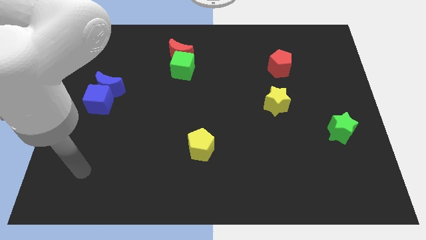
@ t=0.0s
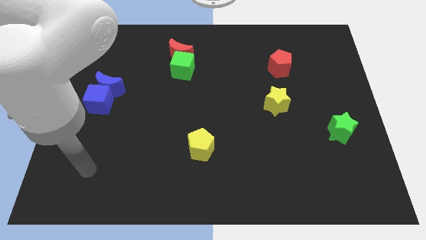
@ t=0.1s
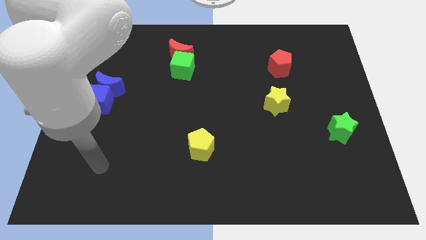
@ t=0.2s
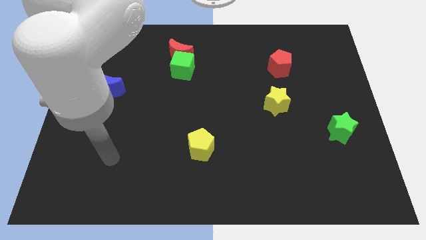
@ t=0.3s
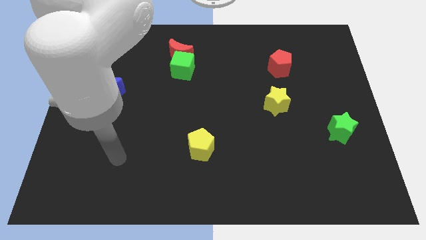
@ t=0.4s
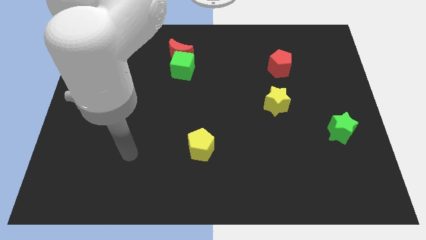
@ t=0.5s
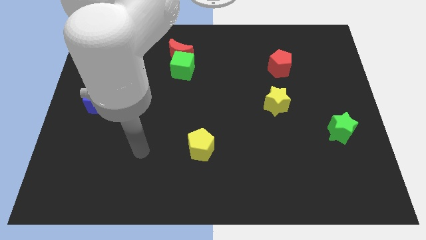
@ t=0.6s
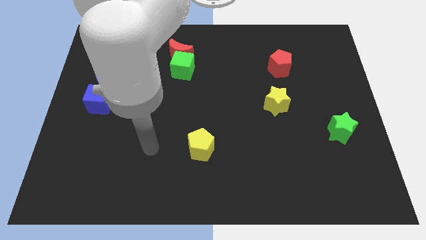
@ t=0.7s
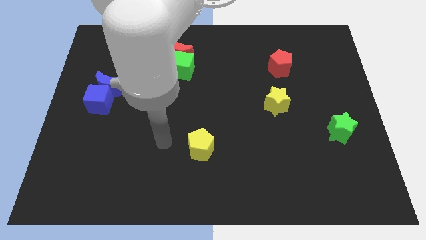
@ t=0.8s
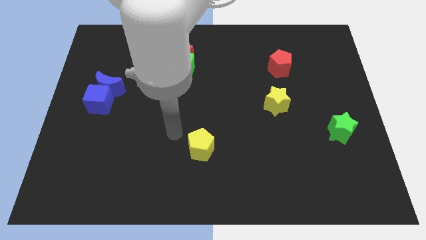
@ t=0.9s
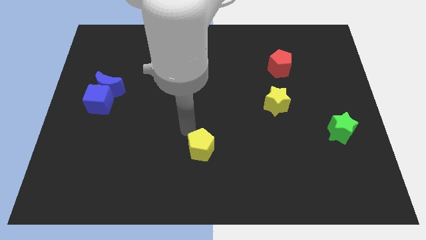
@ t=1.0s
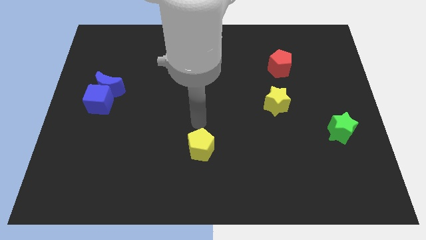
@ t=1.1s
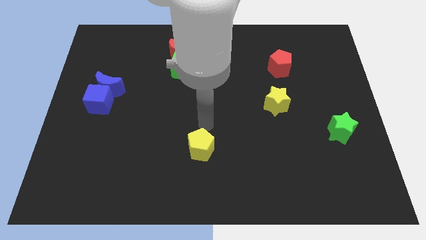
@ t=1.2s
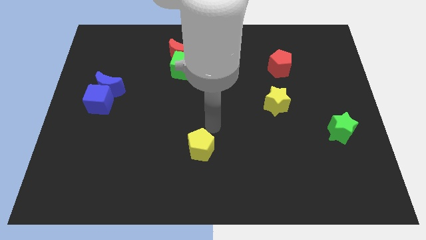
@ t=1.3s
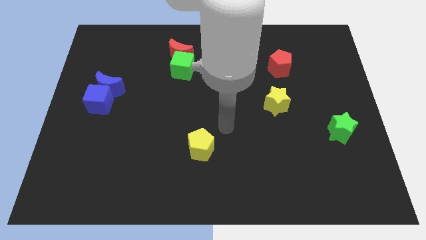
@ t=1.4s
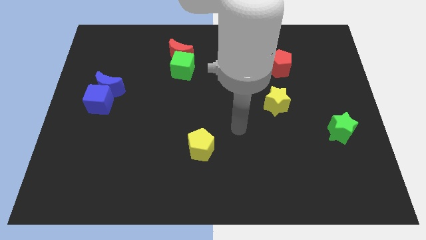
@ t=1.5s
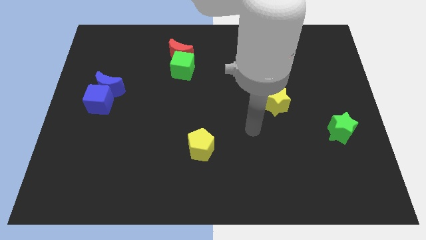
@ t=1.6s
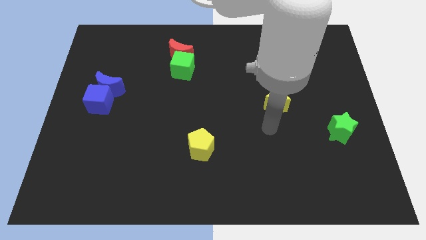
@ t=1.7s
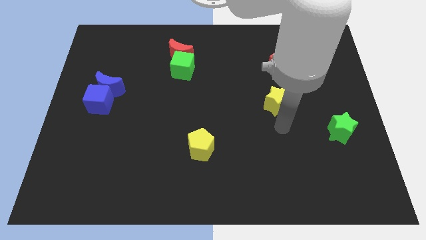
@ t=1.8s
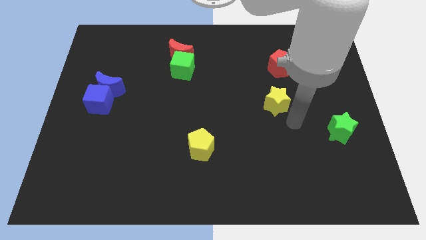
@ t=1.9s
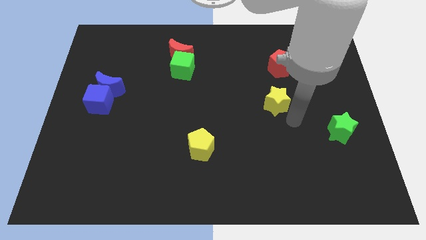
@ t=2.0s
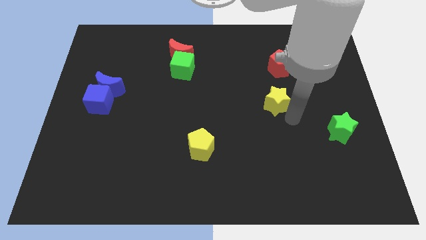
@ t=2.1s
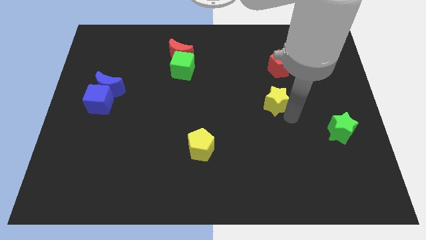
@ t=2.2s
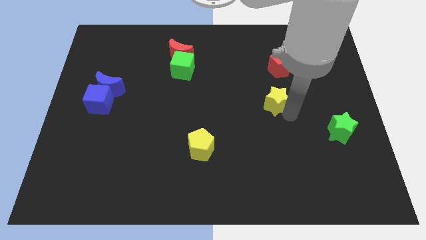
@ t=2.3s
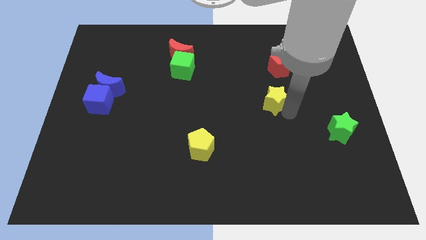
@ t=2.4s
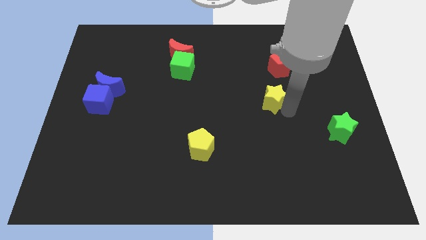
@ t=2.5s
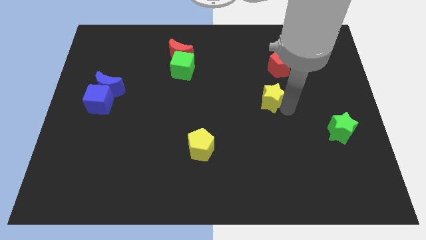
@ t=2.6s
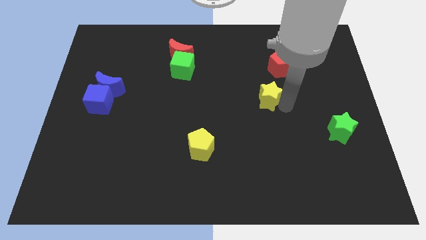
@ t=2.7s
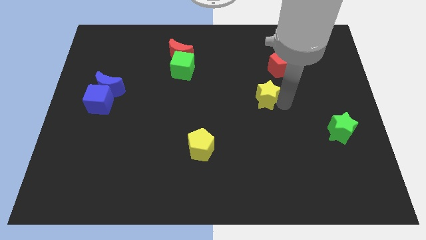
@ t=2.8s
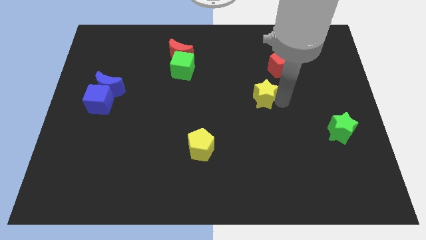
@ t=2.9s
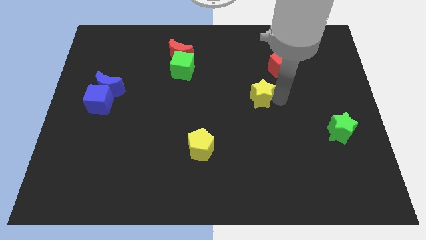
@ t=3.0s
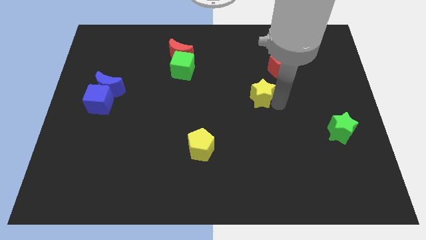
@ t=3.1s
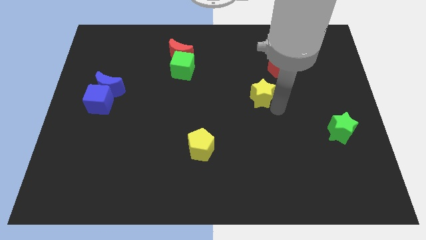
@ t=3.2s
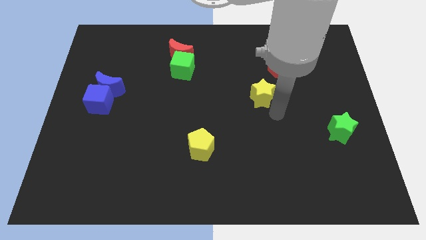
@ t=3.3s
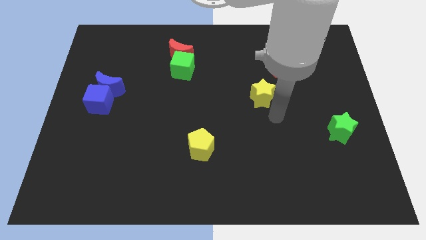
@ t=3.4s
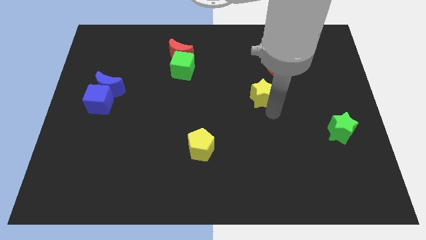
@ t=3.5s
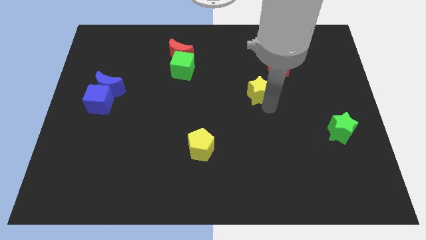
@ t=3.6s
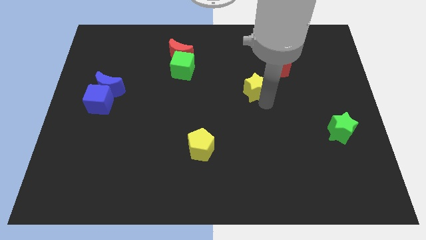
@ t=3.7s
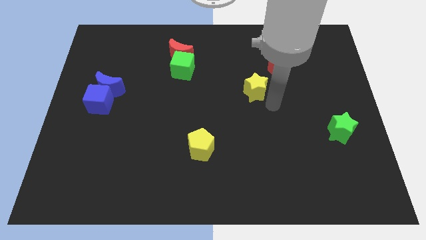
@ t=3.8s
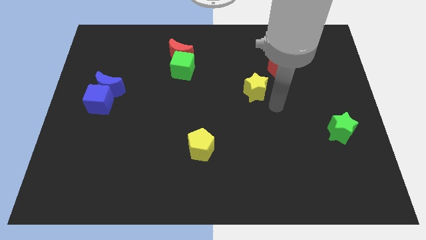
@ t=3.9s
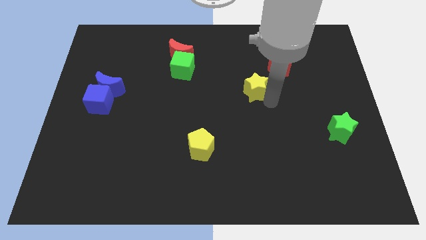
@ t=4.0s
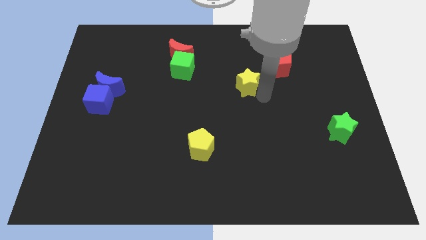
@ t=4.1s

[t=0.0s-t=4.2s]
push the yellow star up and then to the left a little

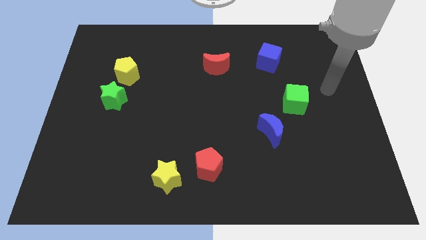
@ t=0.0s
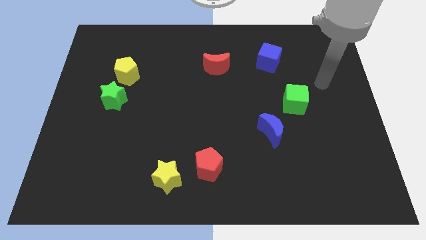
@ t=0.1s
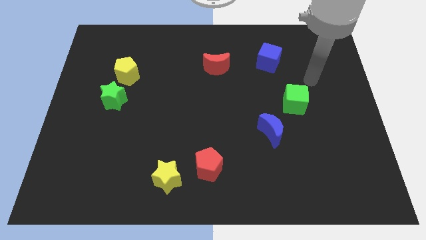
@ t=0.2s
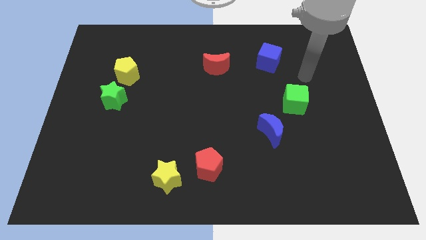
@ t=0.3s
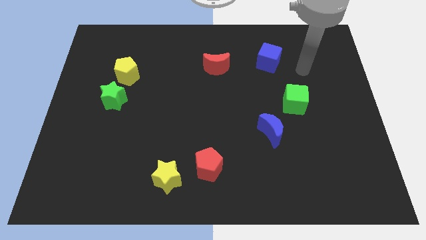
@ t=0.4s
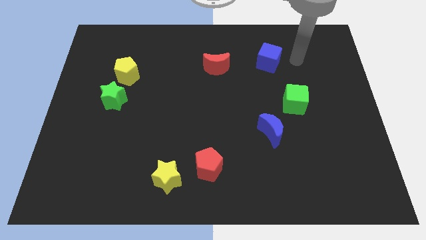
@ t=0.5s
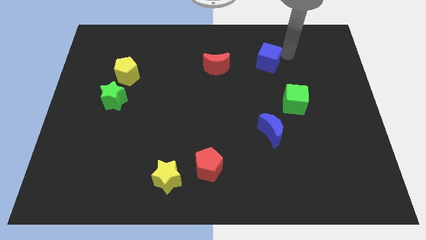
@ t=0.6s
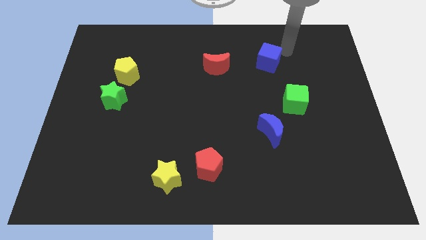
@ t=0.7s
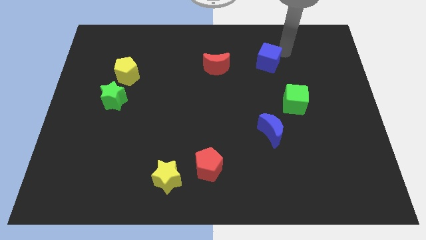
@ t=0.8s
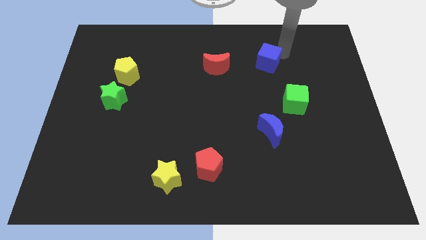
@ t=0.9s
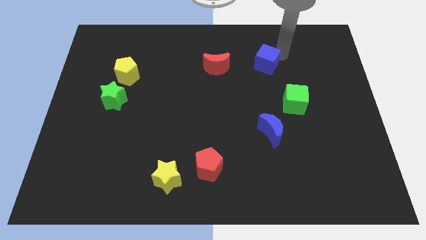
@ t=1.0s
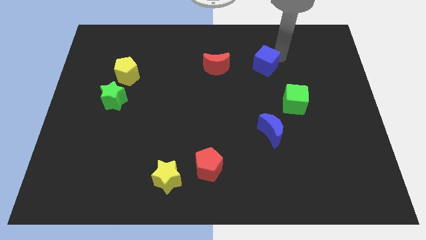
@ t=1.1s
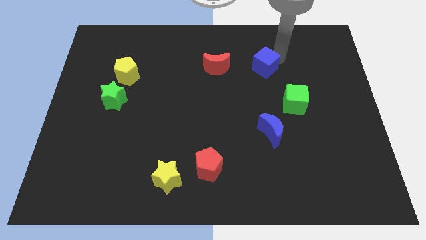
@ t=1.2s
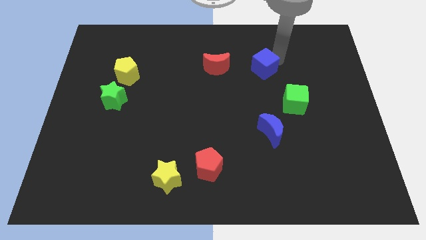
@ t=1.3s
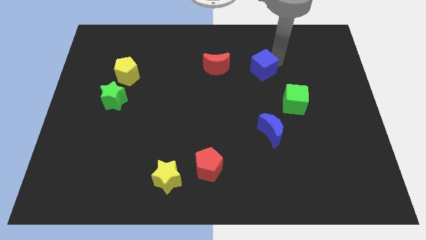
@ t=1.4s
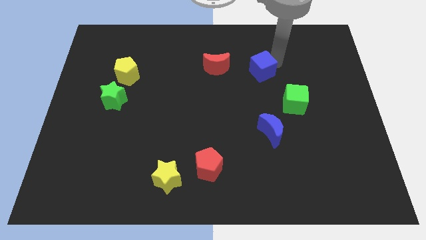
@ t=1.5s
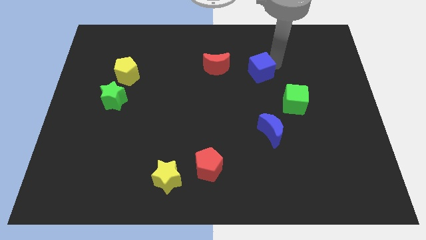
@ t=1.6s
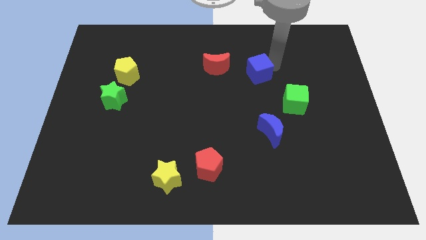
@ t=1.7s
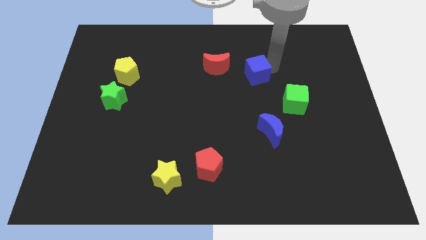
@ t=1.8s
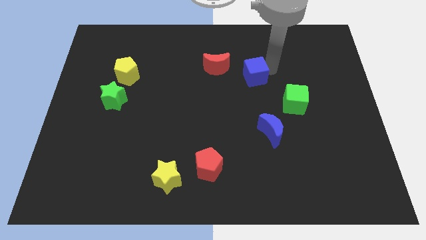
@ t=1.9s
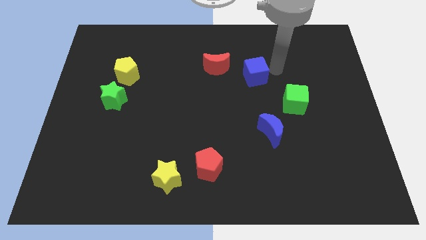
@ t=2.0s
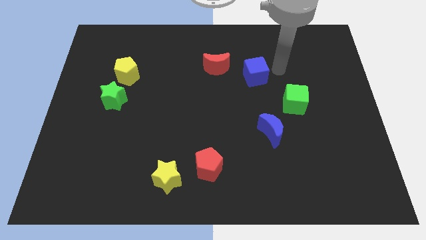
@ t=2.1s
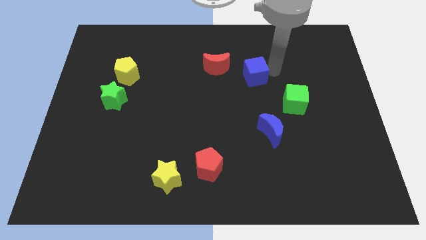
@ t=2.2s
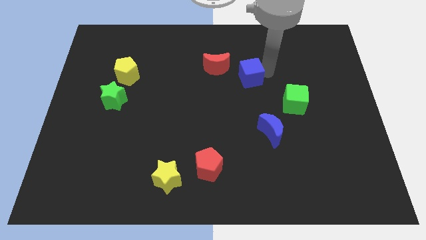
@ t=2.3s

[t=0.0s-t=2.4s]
slide the blue cube a little downwards and to the left

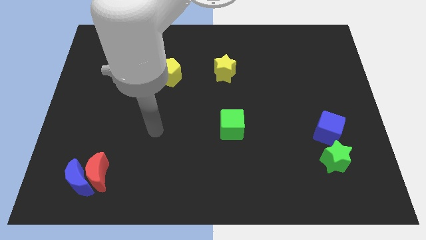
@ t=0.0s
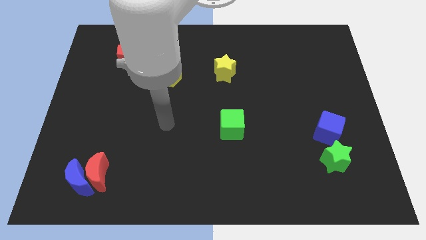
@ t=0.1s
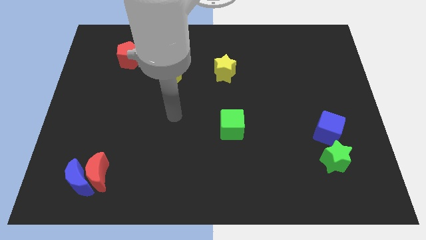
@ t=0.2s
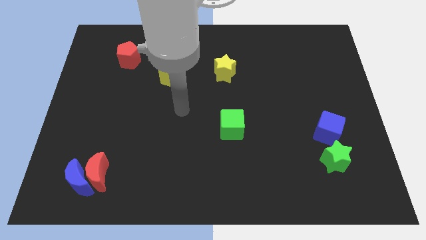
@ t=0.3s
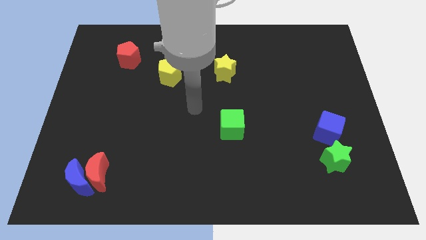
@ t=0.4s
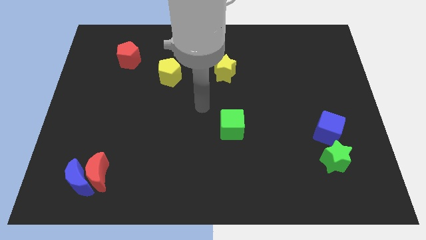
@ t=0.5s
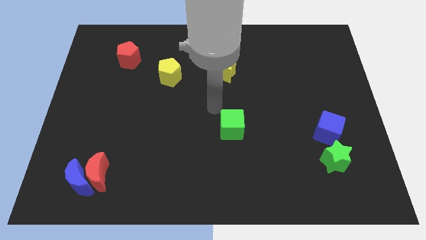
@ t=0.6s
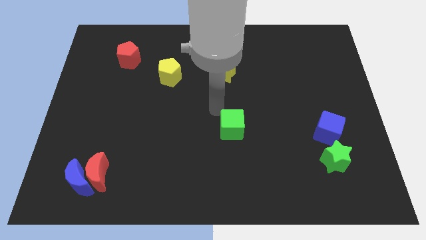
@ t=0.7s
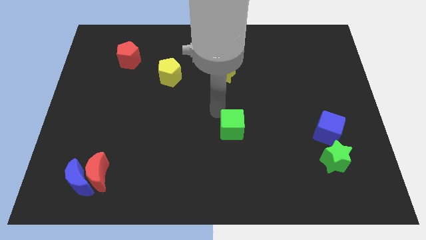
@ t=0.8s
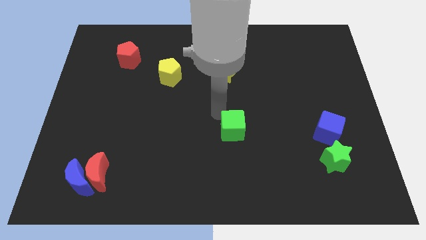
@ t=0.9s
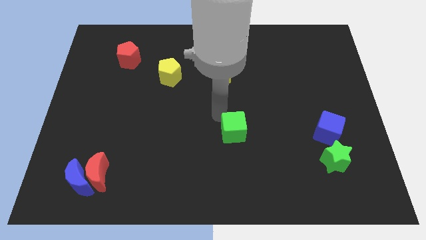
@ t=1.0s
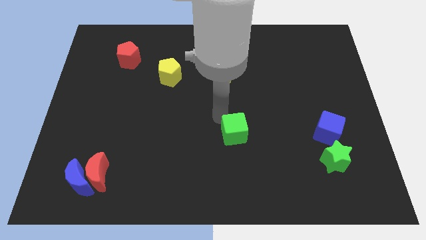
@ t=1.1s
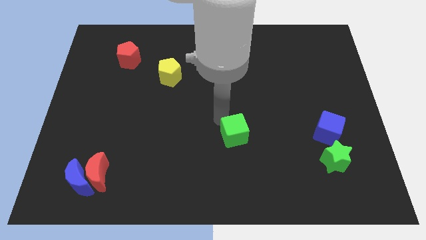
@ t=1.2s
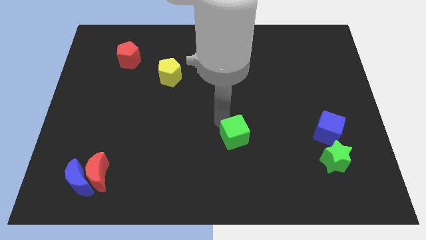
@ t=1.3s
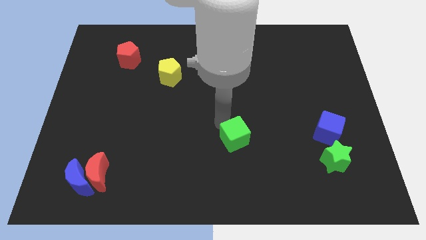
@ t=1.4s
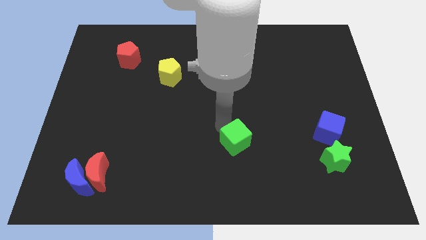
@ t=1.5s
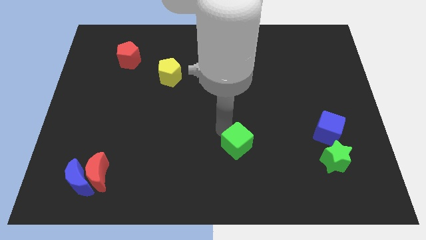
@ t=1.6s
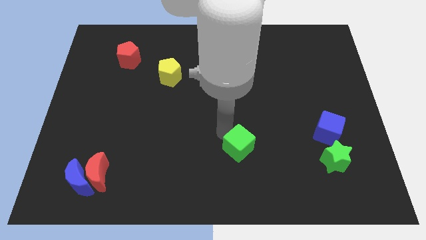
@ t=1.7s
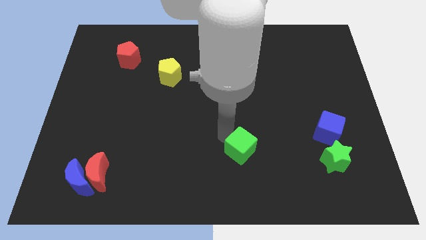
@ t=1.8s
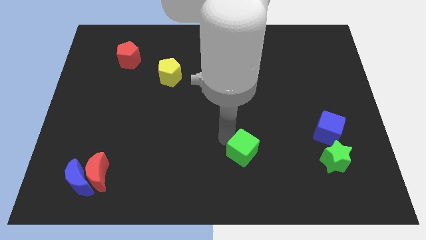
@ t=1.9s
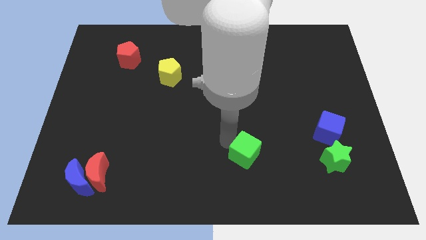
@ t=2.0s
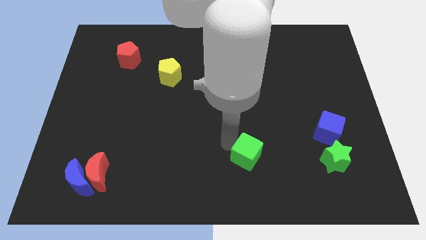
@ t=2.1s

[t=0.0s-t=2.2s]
slide the green cube down and right diagonally a little
